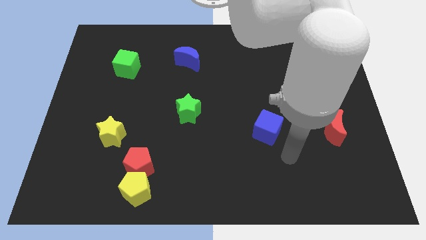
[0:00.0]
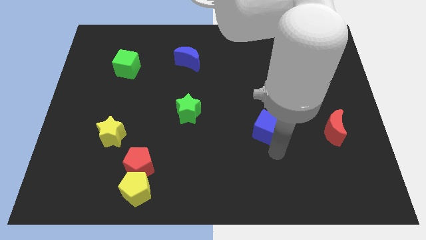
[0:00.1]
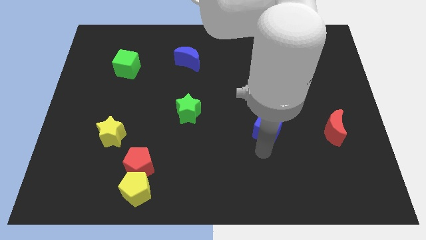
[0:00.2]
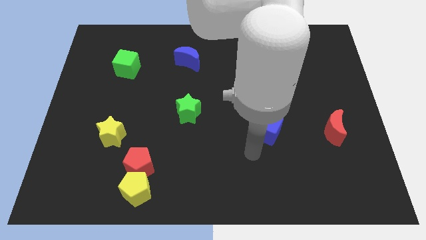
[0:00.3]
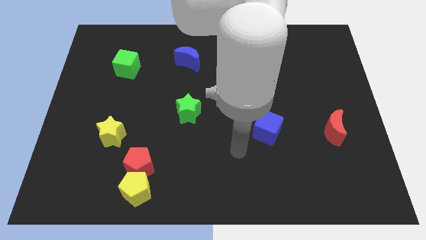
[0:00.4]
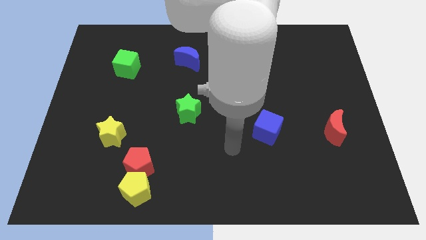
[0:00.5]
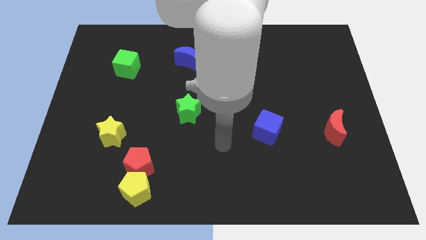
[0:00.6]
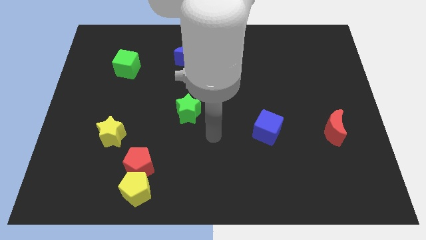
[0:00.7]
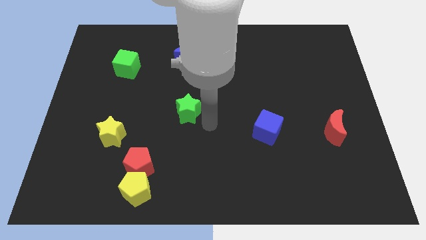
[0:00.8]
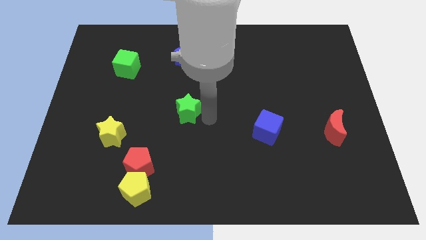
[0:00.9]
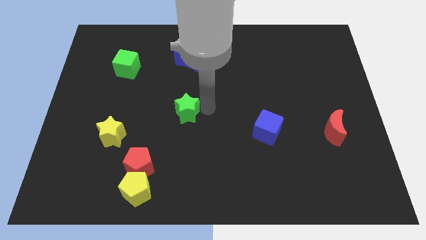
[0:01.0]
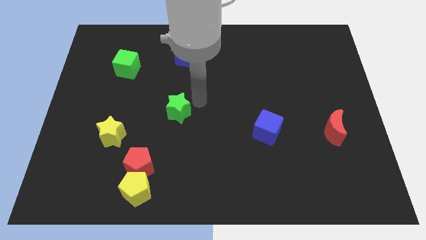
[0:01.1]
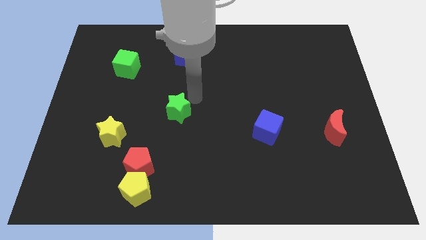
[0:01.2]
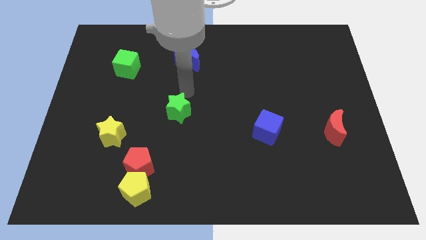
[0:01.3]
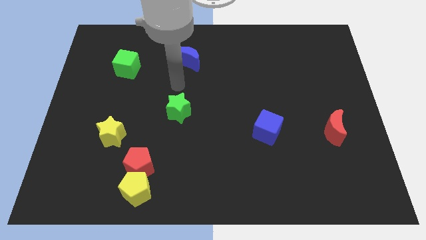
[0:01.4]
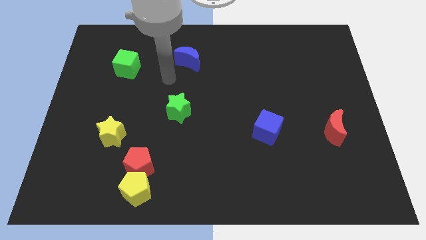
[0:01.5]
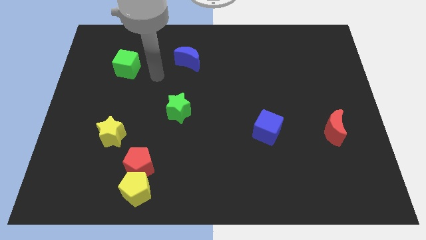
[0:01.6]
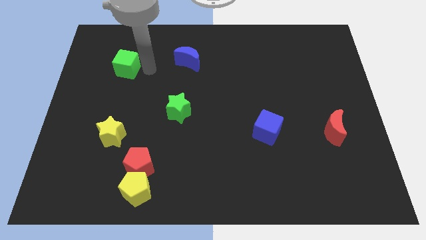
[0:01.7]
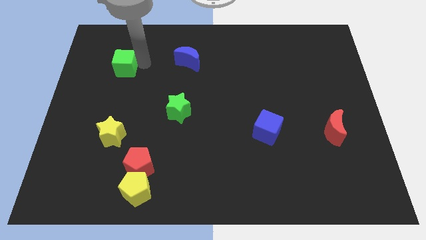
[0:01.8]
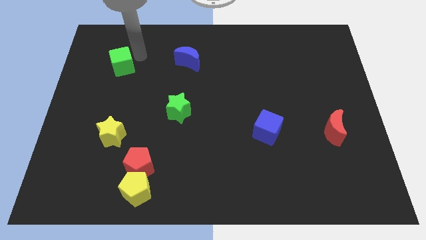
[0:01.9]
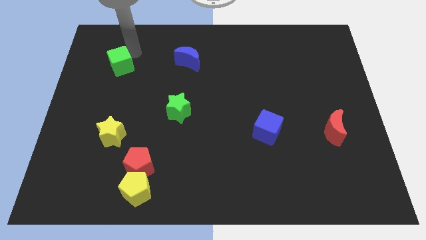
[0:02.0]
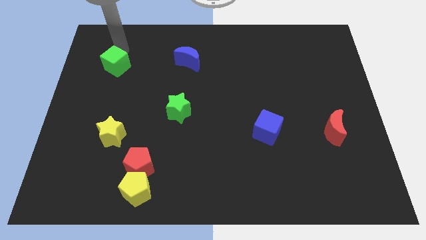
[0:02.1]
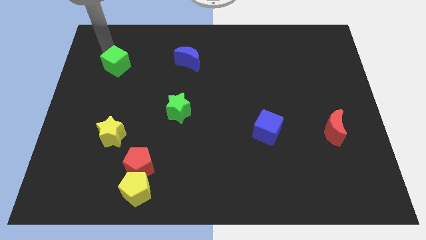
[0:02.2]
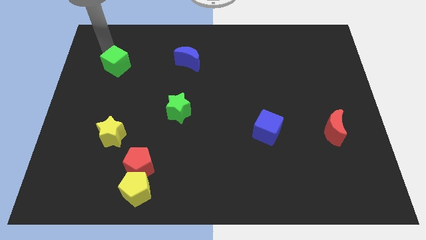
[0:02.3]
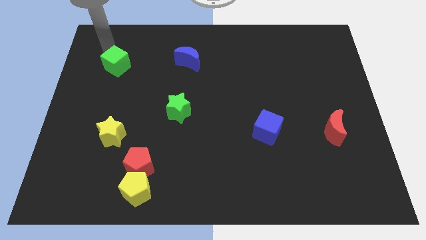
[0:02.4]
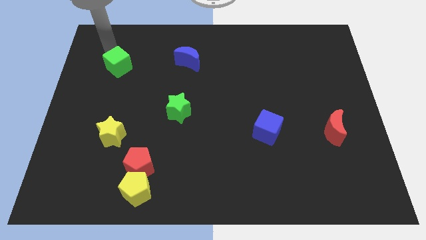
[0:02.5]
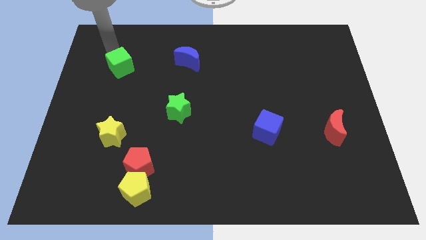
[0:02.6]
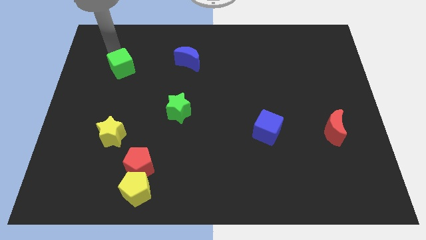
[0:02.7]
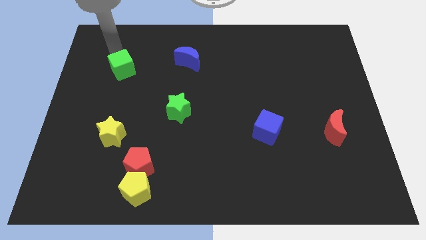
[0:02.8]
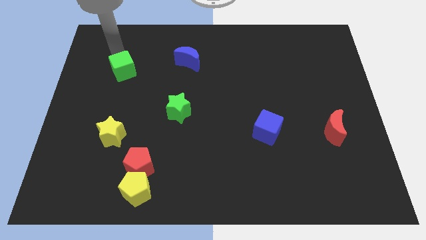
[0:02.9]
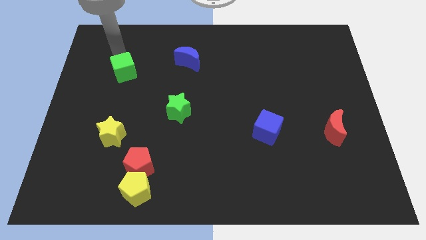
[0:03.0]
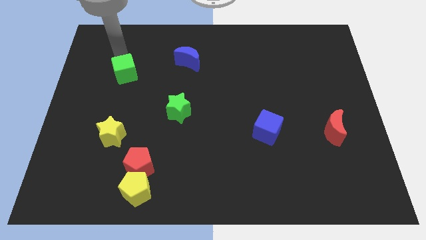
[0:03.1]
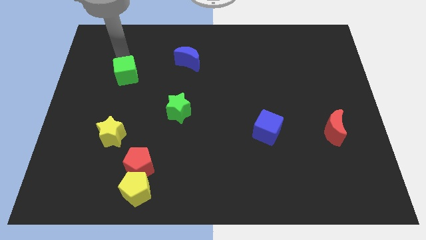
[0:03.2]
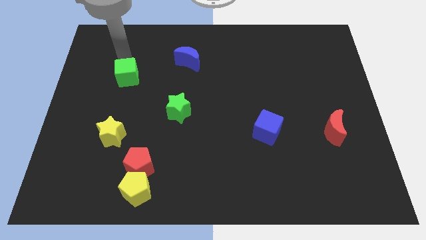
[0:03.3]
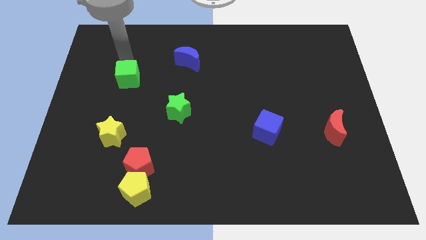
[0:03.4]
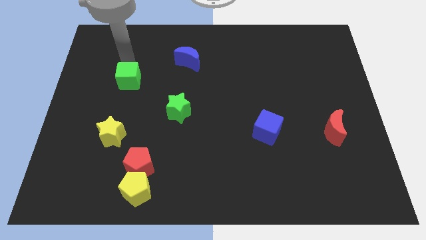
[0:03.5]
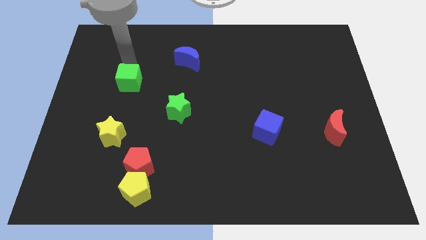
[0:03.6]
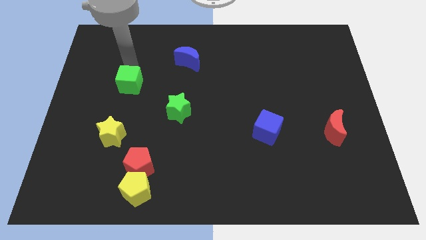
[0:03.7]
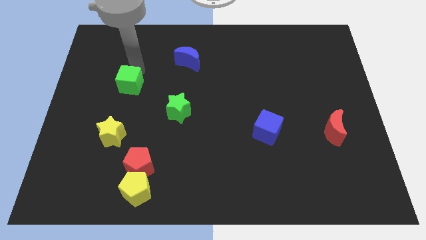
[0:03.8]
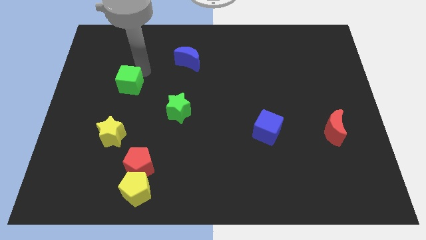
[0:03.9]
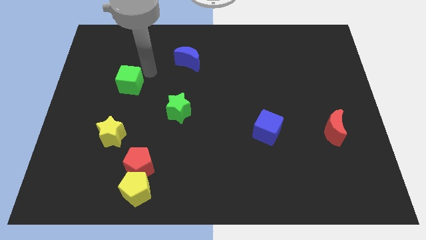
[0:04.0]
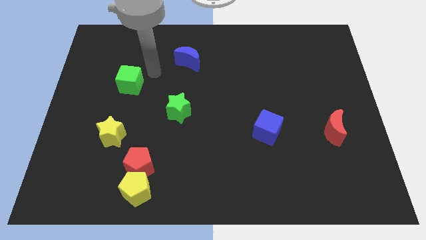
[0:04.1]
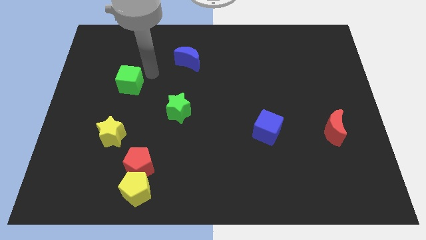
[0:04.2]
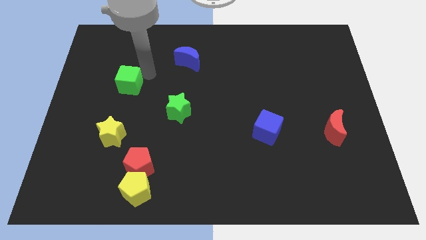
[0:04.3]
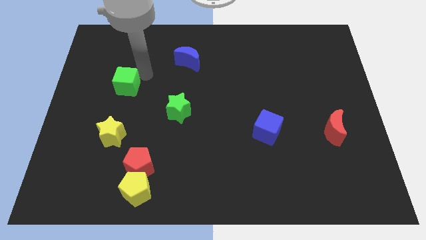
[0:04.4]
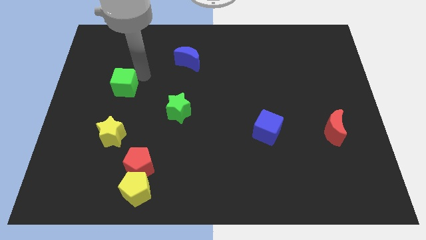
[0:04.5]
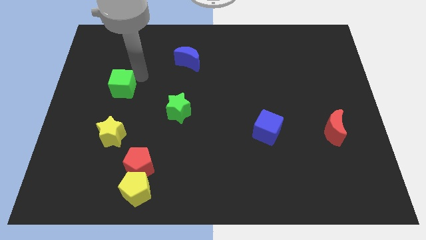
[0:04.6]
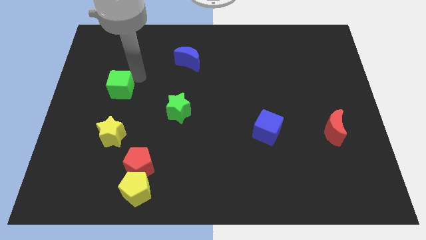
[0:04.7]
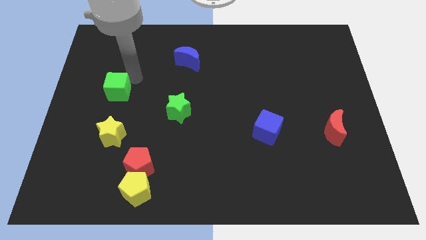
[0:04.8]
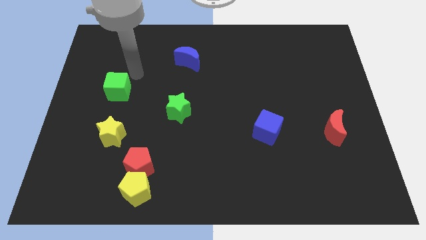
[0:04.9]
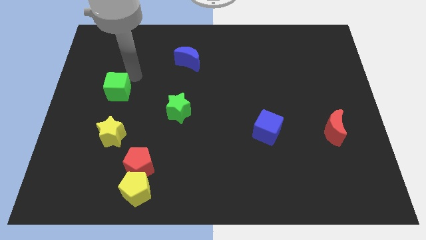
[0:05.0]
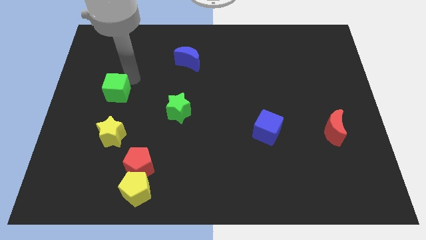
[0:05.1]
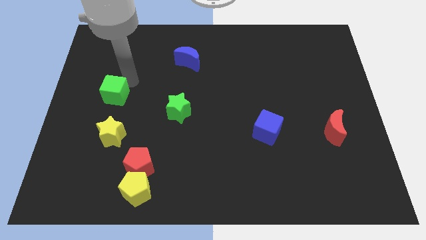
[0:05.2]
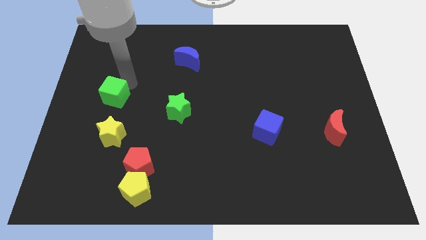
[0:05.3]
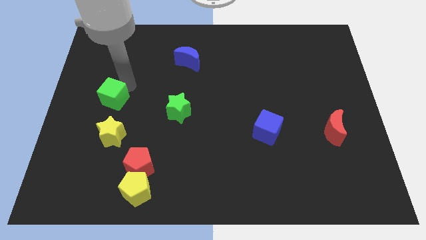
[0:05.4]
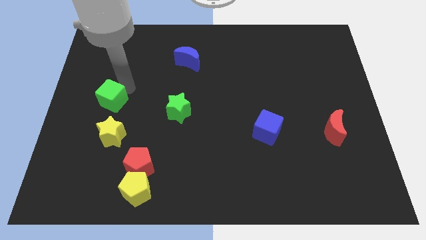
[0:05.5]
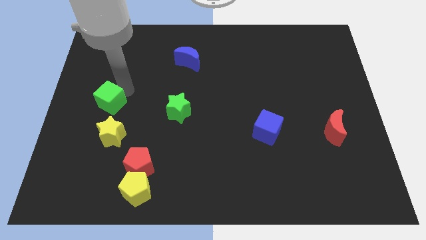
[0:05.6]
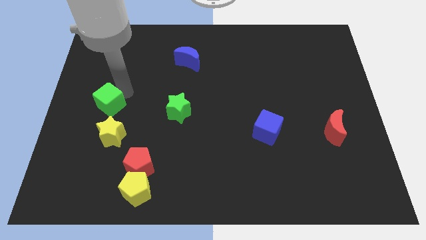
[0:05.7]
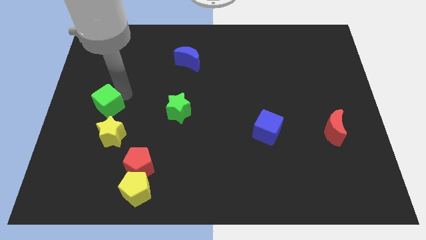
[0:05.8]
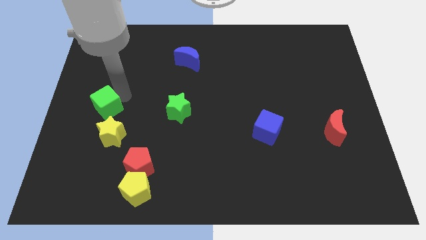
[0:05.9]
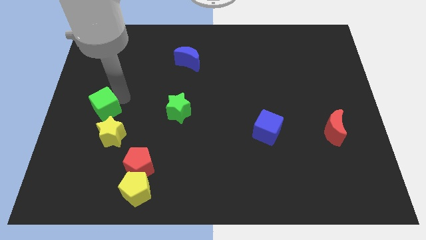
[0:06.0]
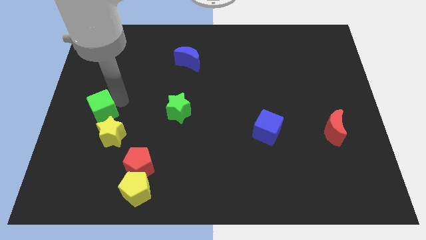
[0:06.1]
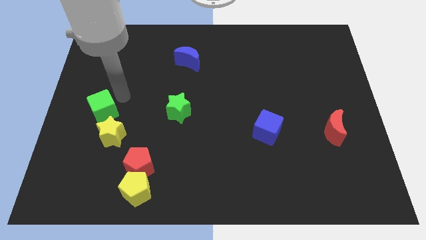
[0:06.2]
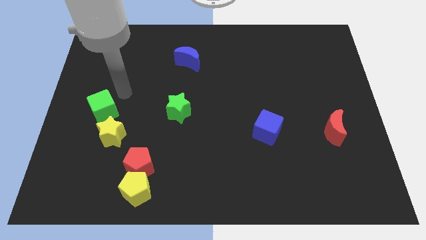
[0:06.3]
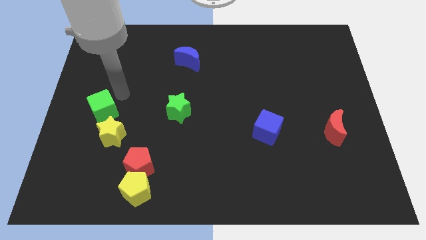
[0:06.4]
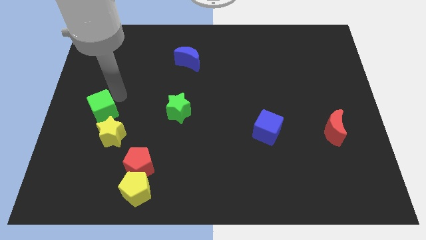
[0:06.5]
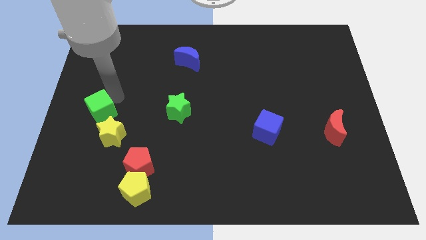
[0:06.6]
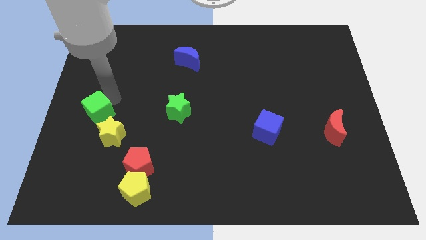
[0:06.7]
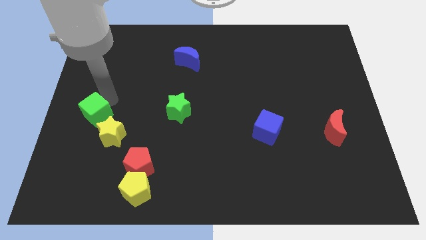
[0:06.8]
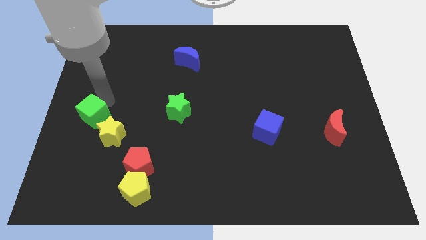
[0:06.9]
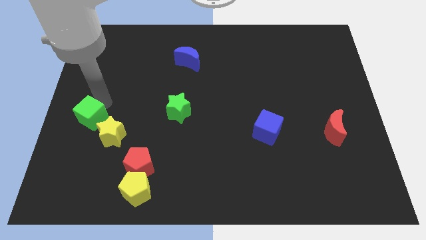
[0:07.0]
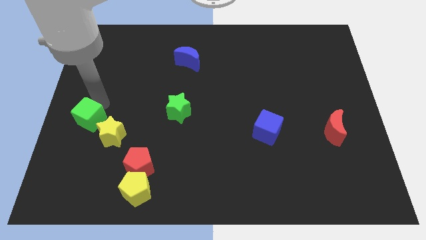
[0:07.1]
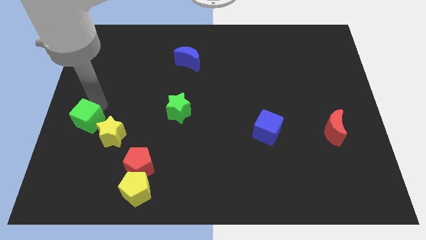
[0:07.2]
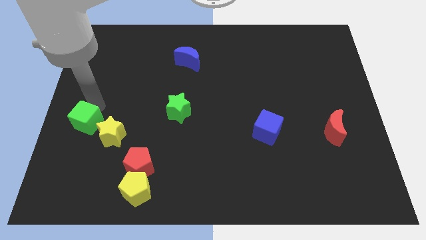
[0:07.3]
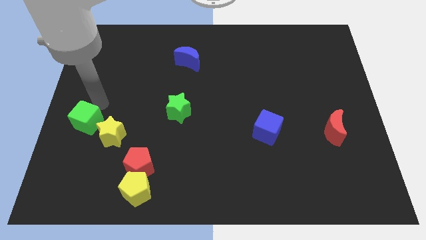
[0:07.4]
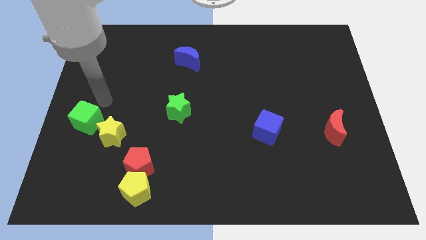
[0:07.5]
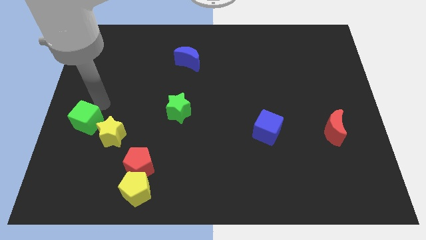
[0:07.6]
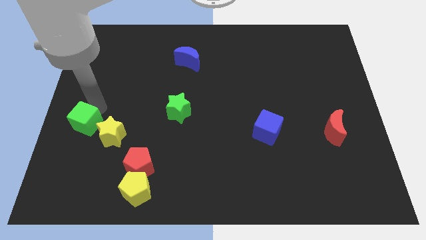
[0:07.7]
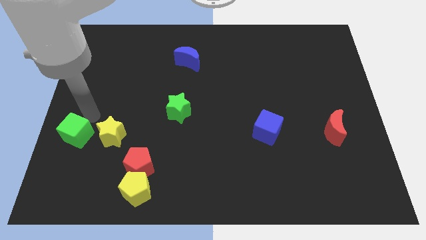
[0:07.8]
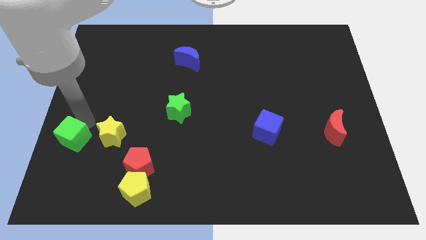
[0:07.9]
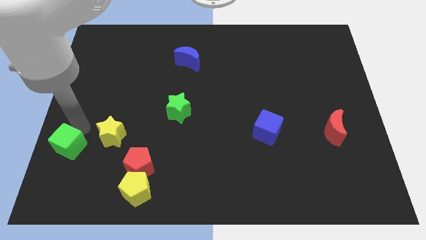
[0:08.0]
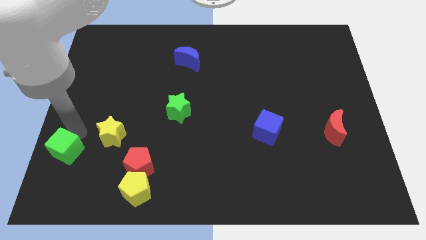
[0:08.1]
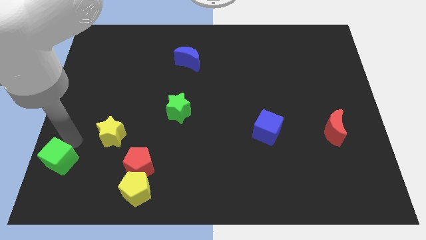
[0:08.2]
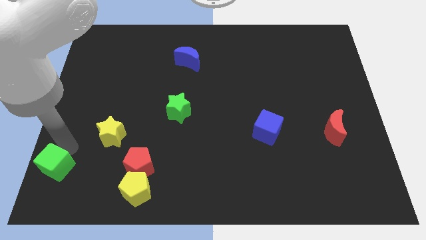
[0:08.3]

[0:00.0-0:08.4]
put the green cube to the bottom left corner
